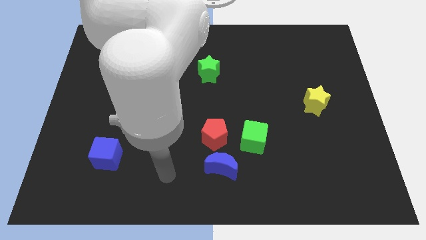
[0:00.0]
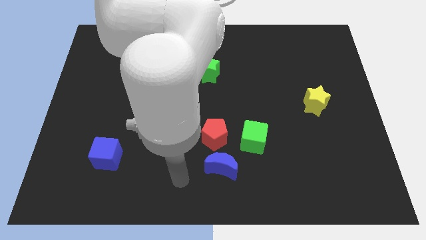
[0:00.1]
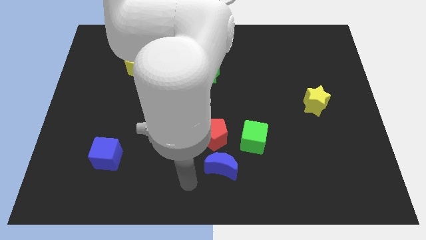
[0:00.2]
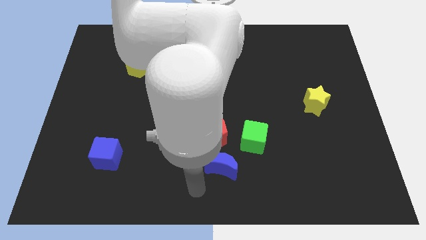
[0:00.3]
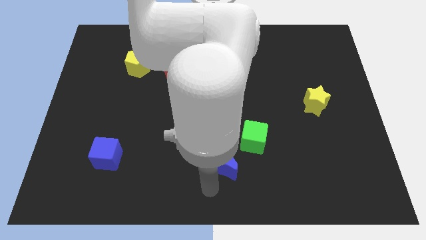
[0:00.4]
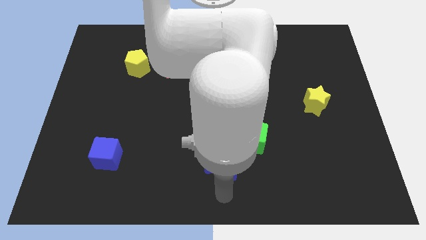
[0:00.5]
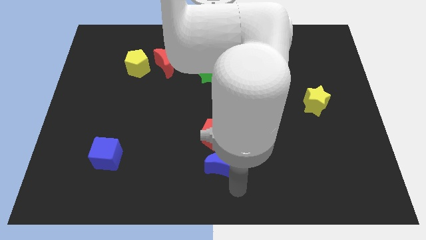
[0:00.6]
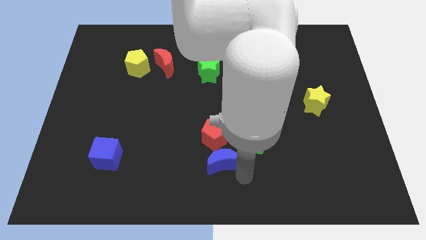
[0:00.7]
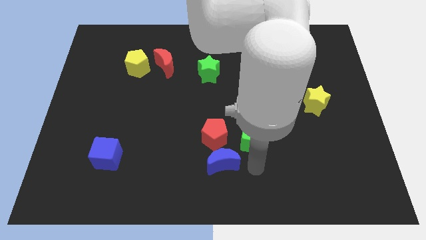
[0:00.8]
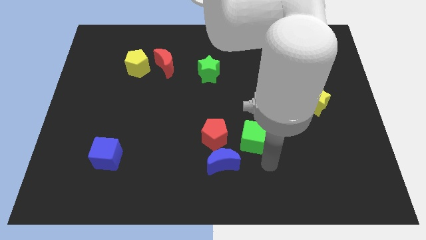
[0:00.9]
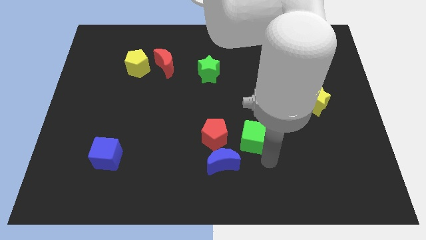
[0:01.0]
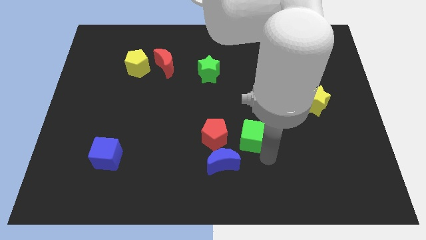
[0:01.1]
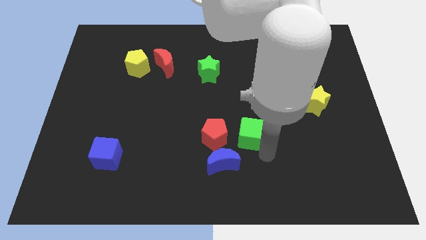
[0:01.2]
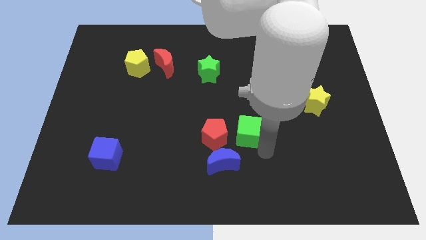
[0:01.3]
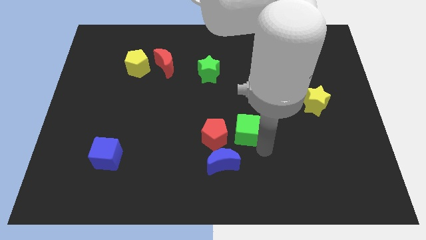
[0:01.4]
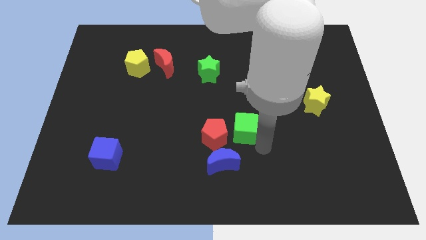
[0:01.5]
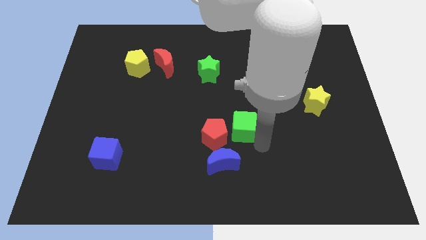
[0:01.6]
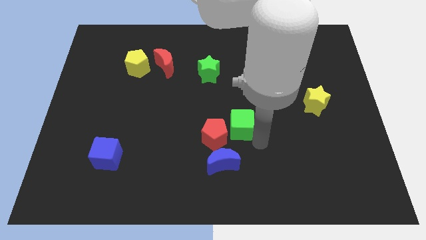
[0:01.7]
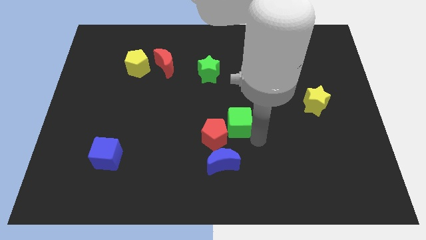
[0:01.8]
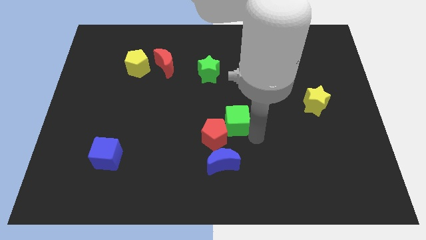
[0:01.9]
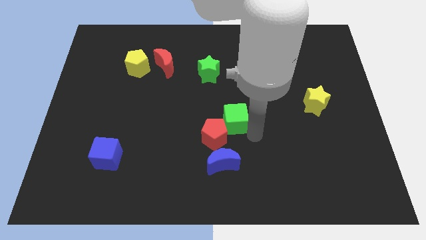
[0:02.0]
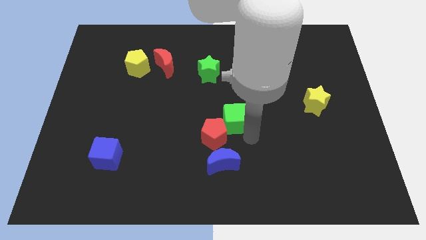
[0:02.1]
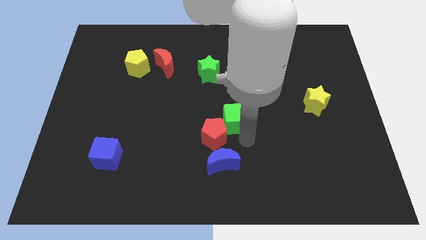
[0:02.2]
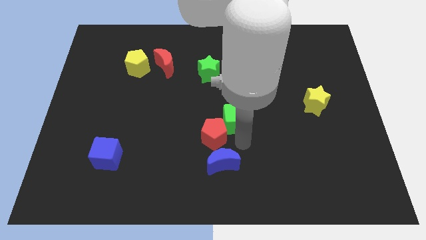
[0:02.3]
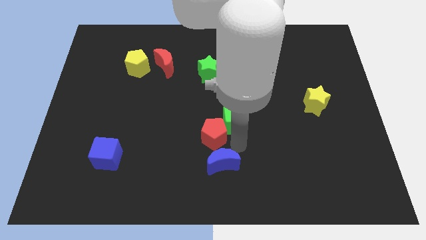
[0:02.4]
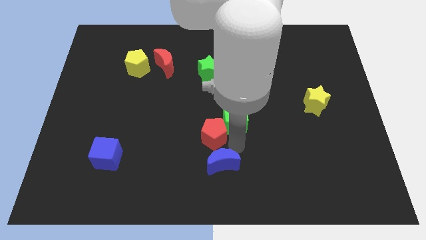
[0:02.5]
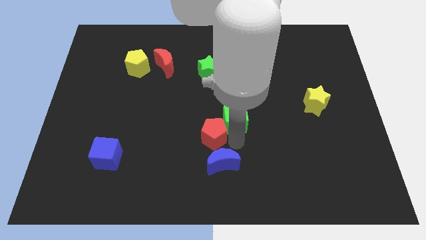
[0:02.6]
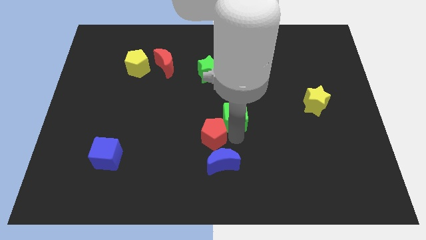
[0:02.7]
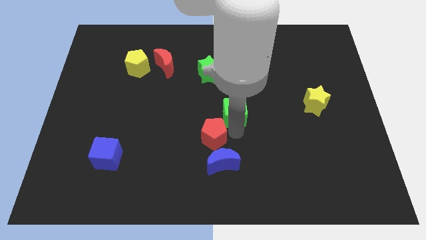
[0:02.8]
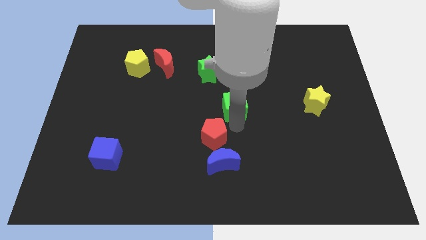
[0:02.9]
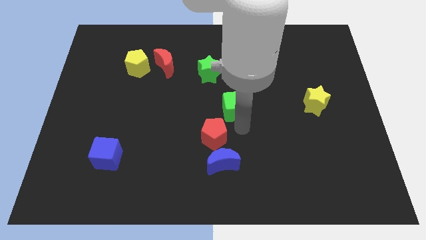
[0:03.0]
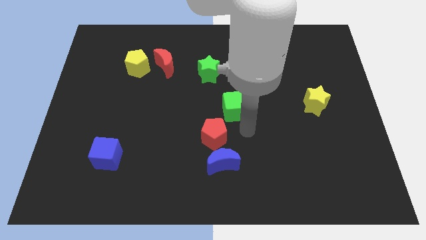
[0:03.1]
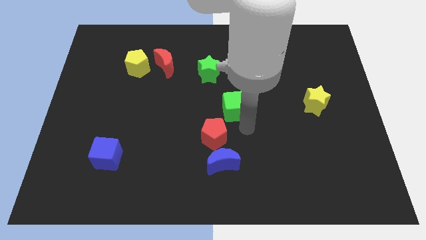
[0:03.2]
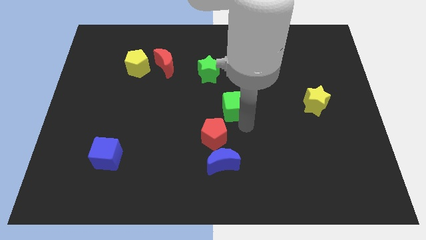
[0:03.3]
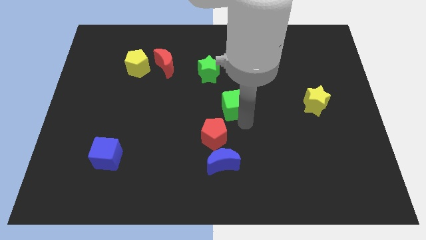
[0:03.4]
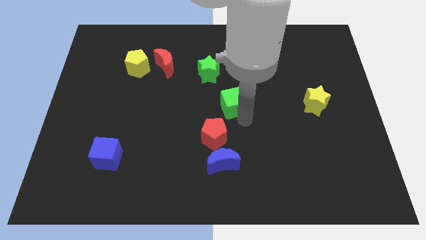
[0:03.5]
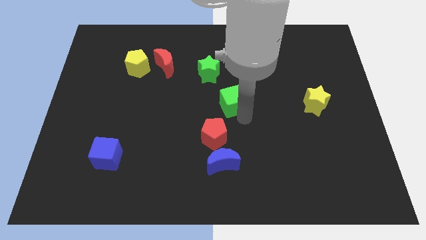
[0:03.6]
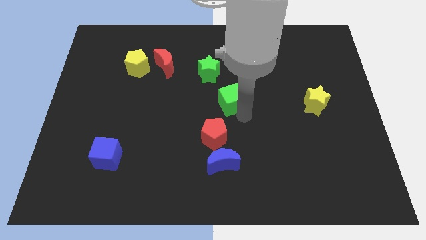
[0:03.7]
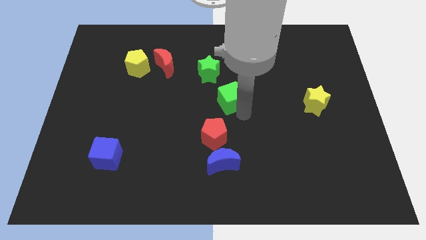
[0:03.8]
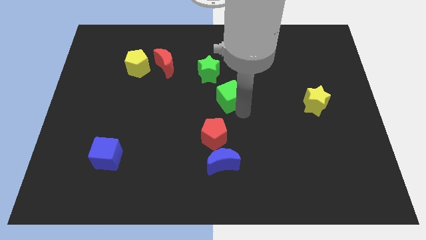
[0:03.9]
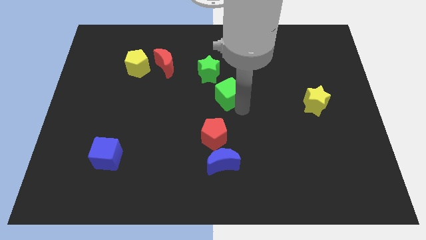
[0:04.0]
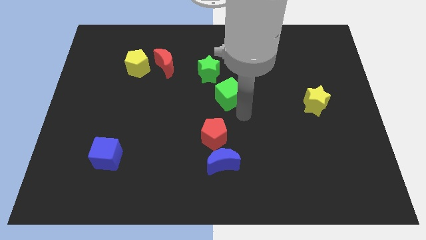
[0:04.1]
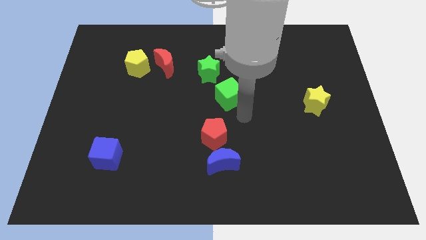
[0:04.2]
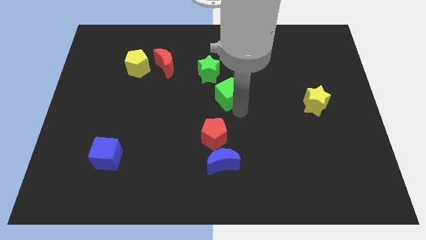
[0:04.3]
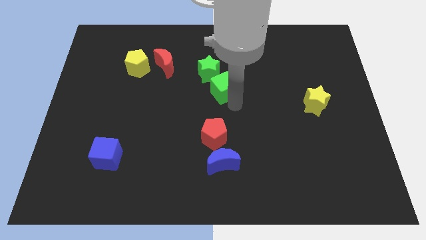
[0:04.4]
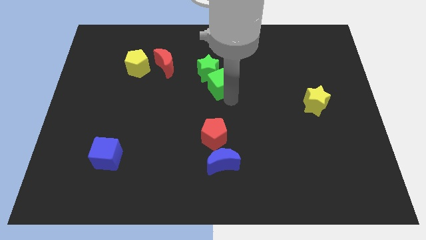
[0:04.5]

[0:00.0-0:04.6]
push the green cube close to the green star

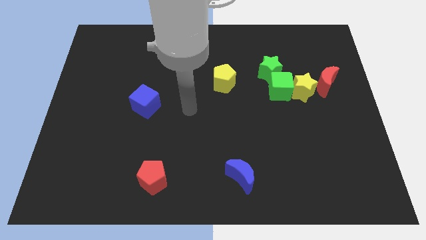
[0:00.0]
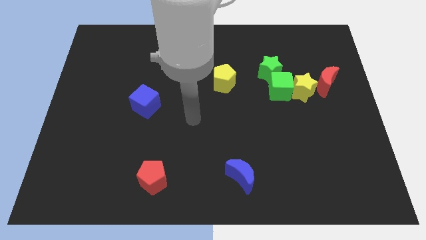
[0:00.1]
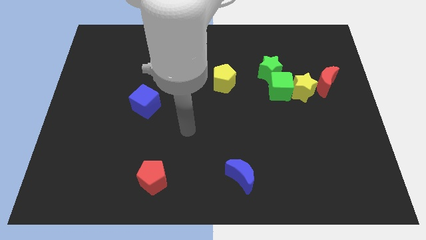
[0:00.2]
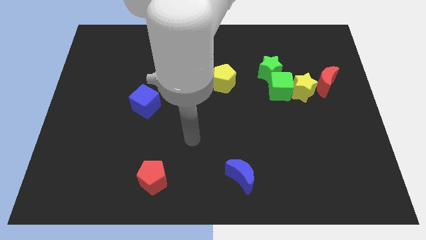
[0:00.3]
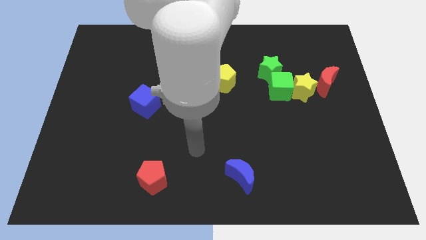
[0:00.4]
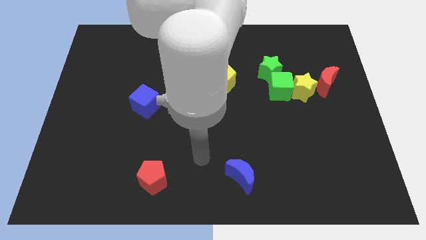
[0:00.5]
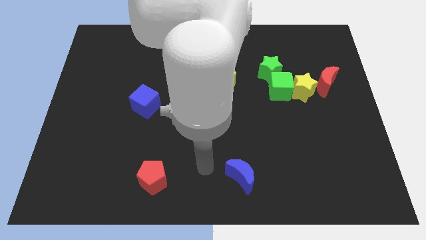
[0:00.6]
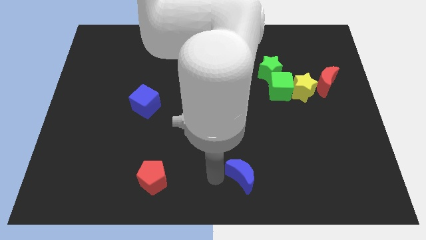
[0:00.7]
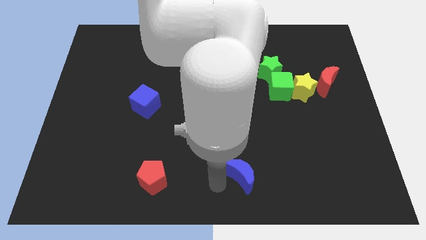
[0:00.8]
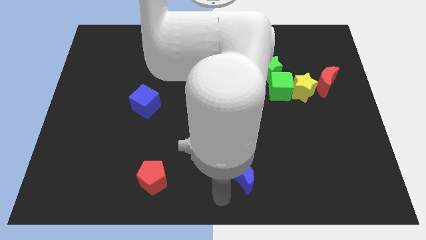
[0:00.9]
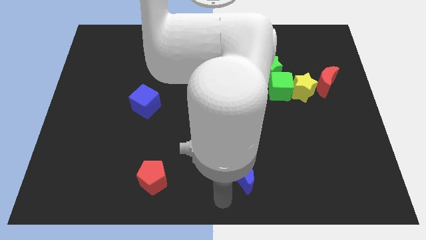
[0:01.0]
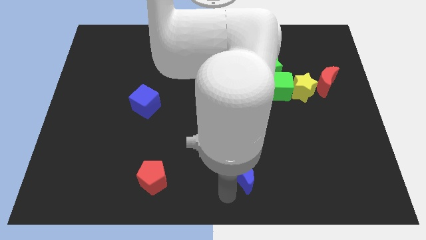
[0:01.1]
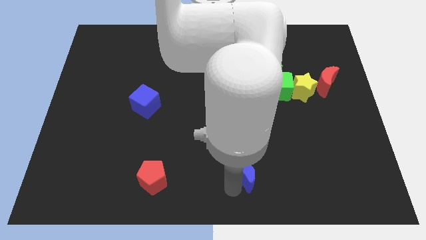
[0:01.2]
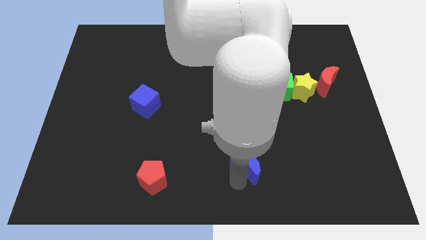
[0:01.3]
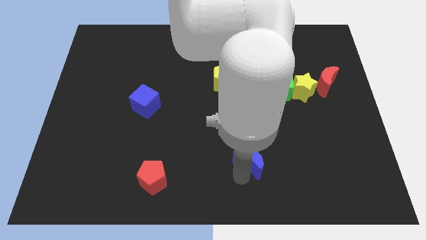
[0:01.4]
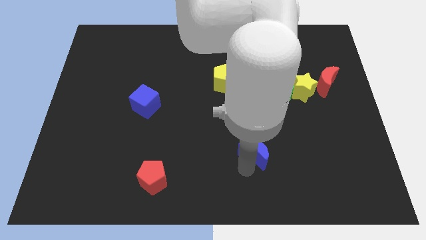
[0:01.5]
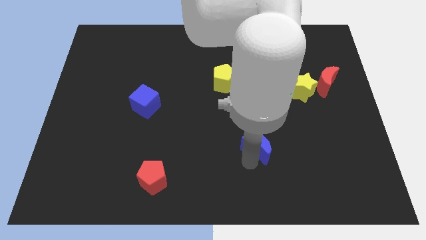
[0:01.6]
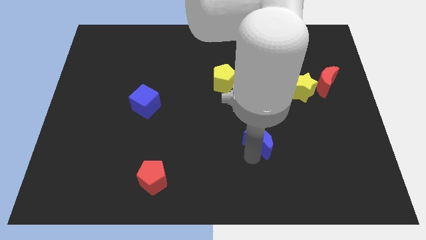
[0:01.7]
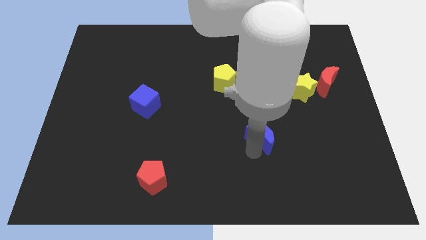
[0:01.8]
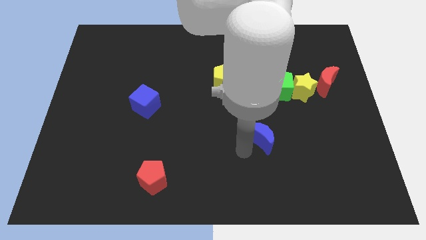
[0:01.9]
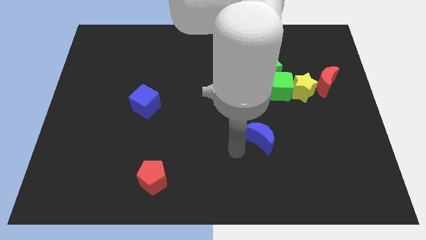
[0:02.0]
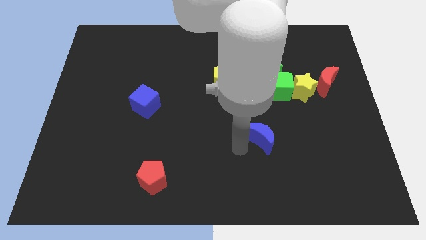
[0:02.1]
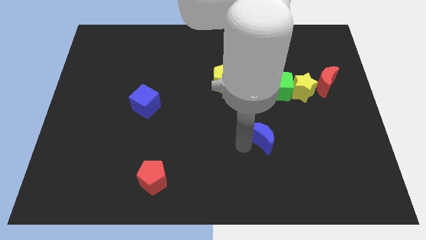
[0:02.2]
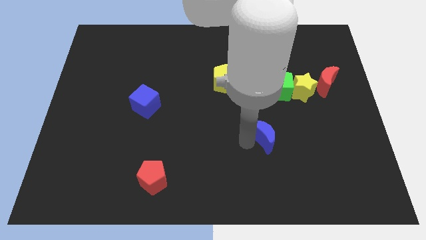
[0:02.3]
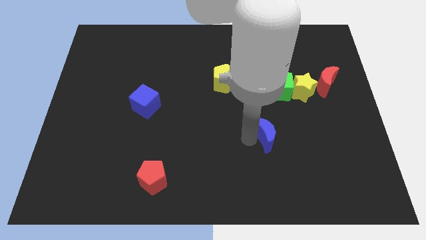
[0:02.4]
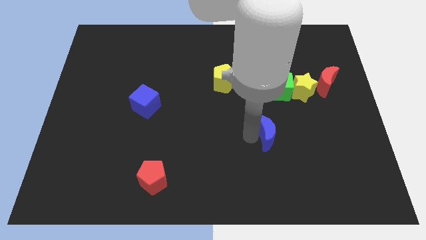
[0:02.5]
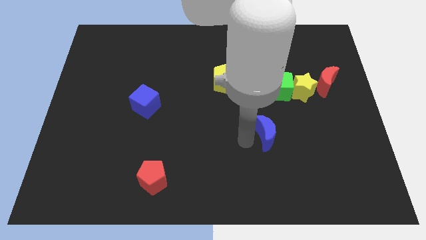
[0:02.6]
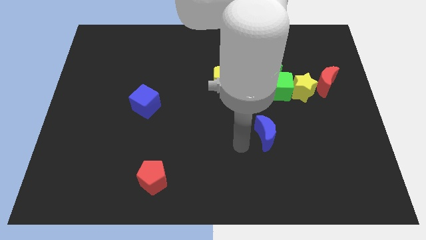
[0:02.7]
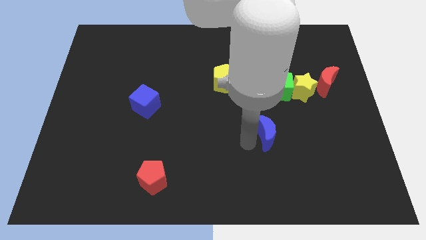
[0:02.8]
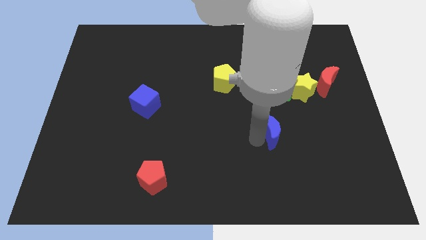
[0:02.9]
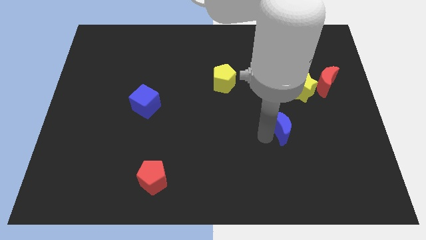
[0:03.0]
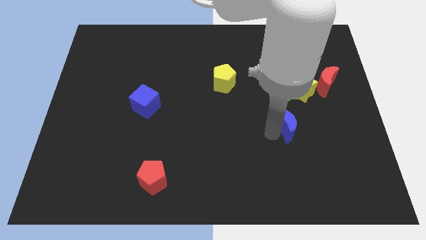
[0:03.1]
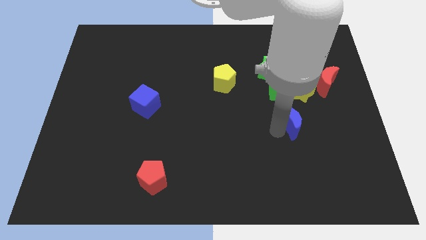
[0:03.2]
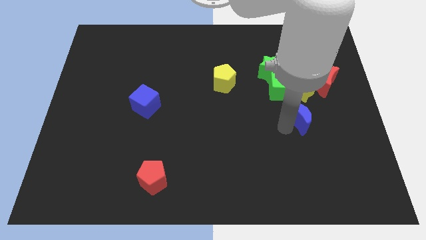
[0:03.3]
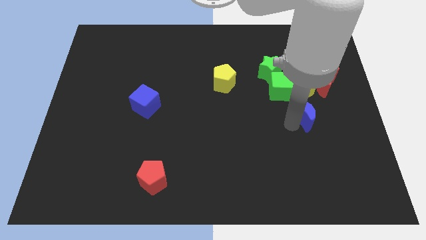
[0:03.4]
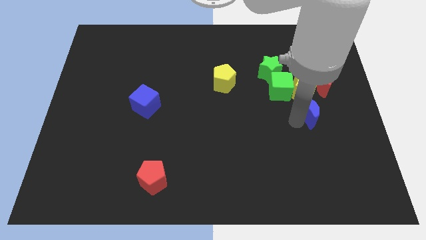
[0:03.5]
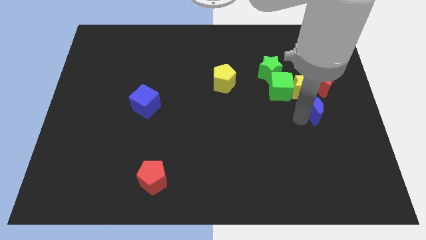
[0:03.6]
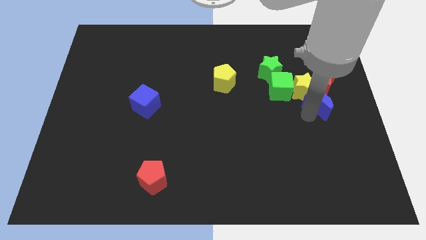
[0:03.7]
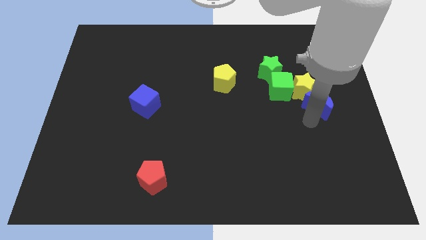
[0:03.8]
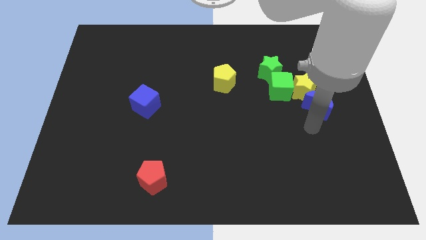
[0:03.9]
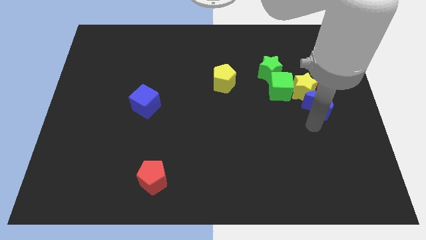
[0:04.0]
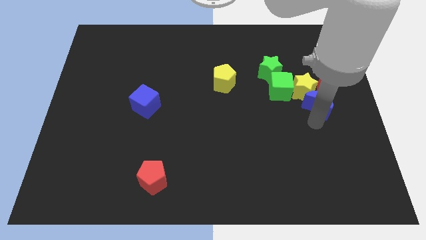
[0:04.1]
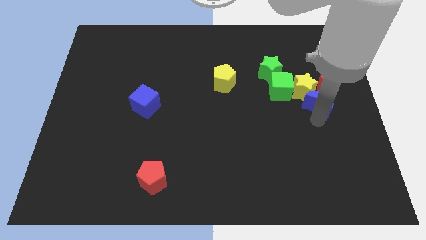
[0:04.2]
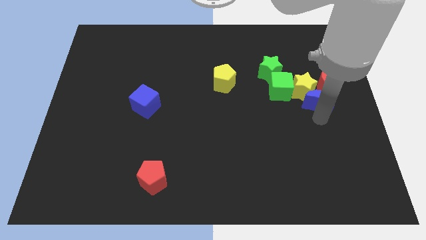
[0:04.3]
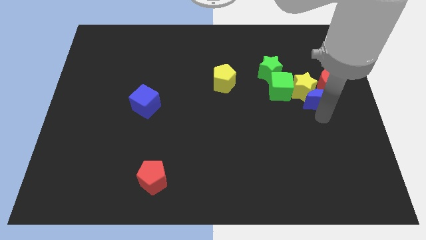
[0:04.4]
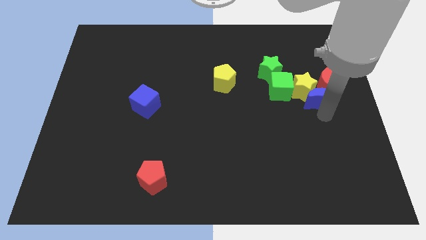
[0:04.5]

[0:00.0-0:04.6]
push the blue moon towards the red moon
